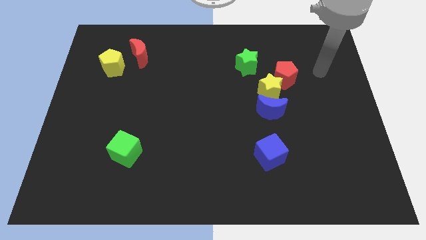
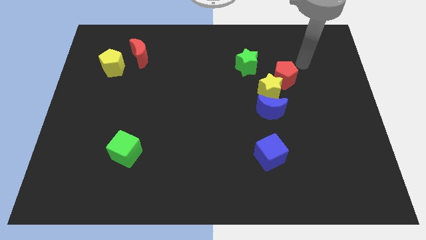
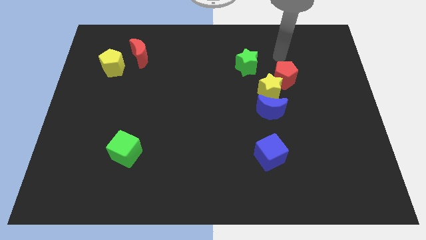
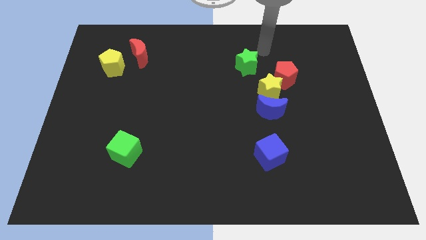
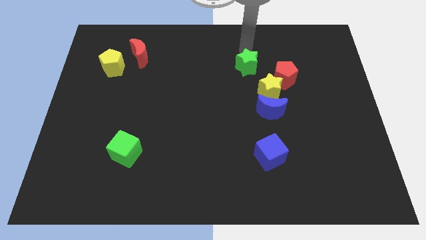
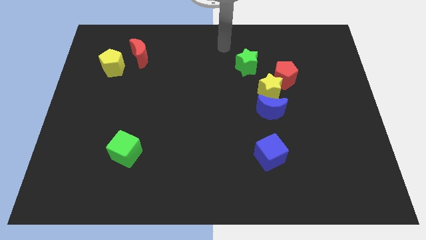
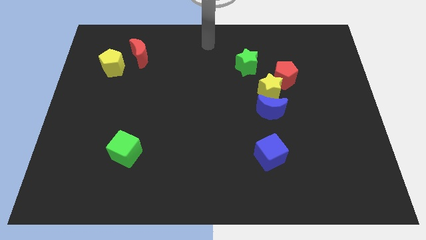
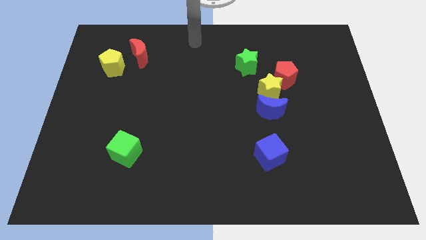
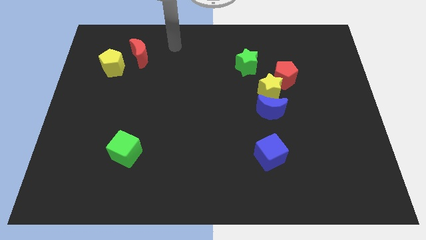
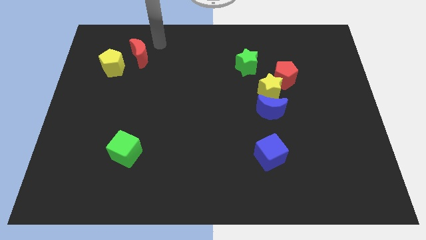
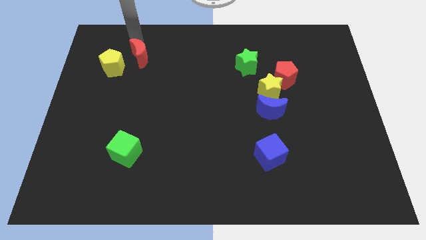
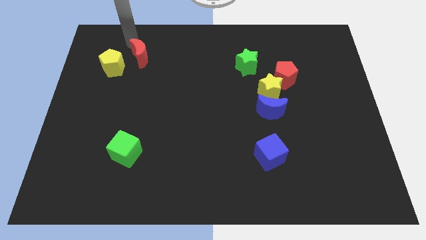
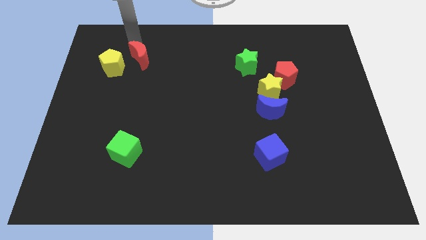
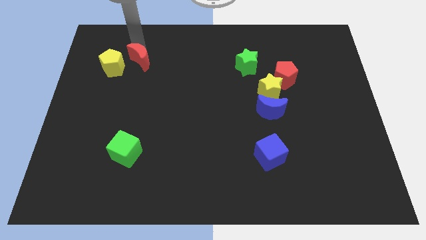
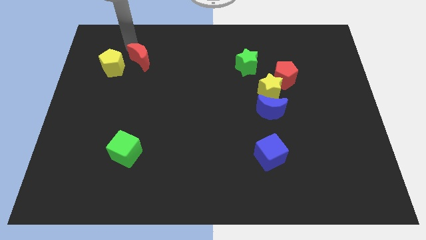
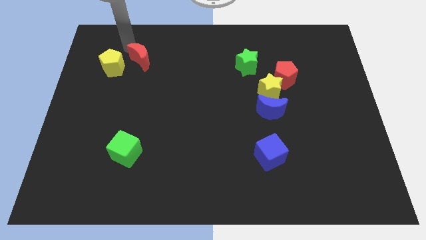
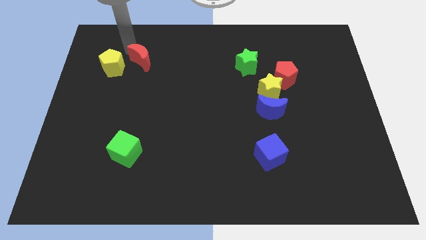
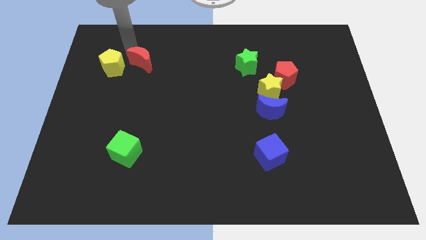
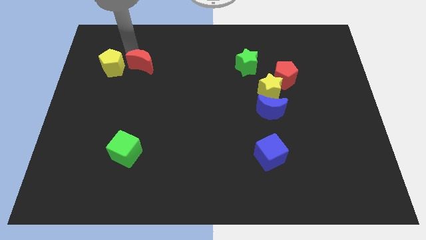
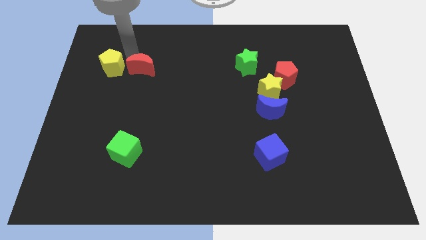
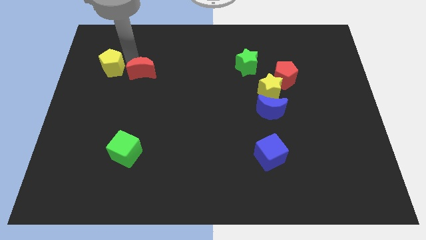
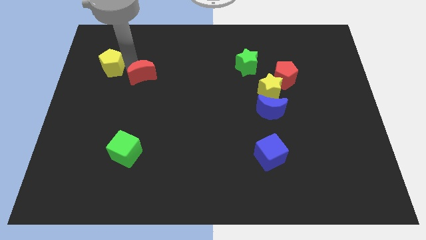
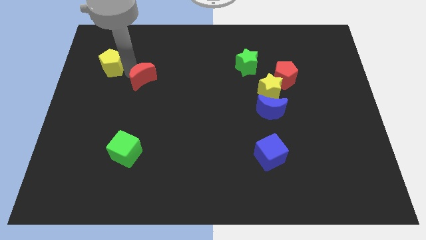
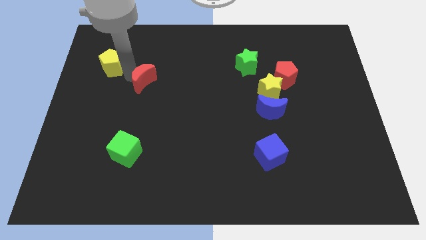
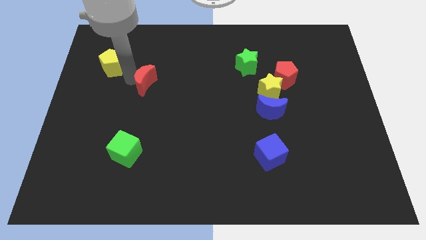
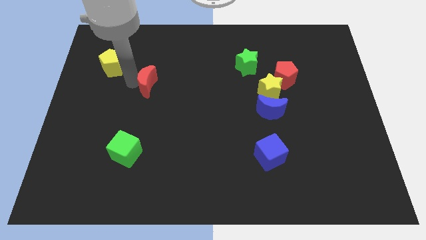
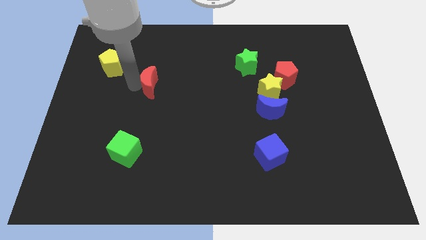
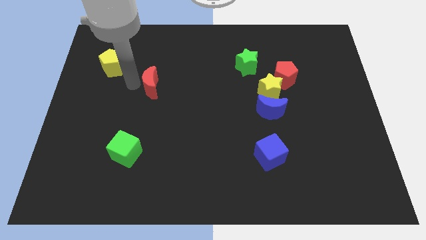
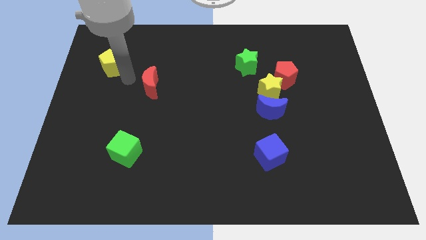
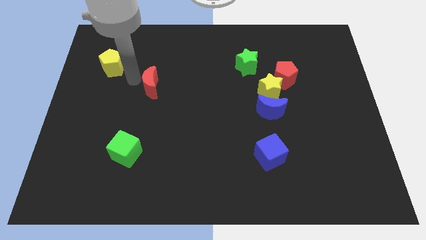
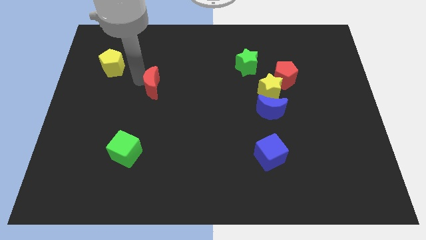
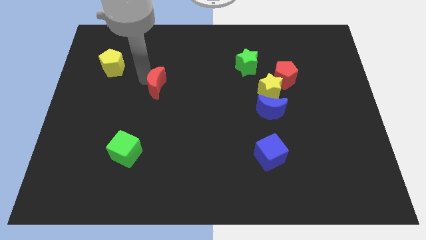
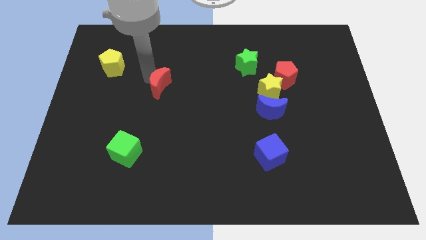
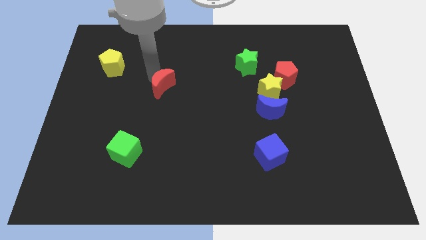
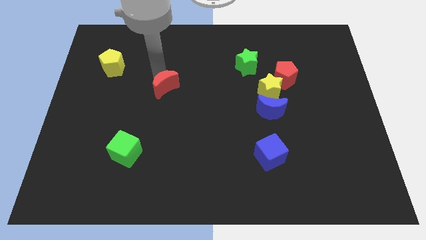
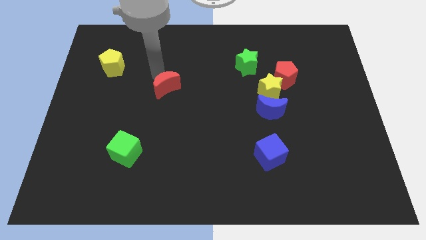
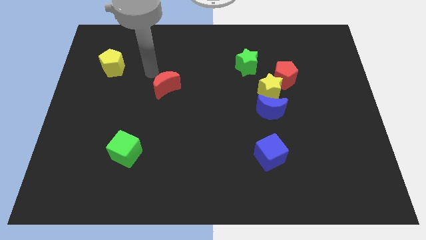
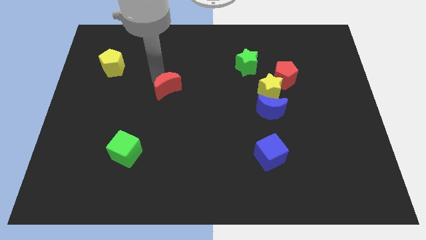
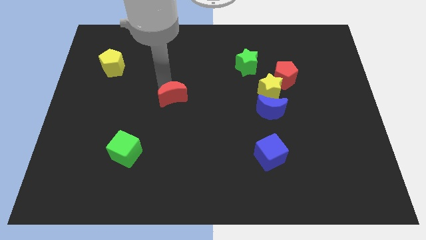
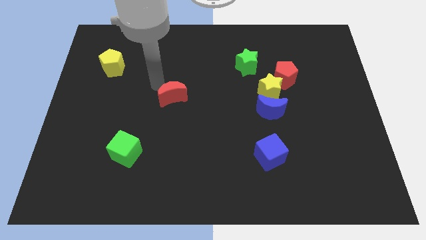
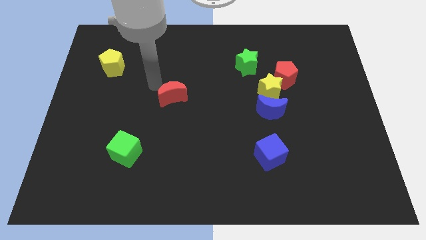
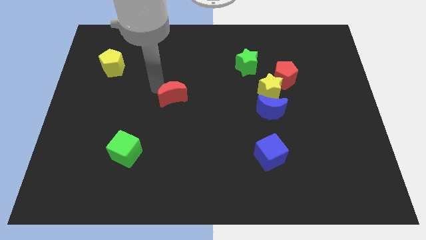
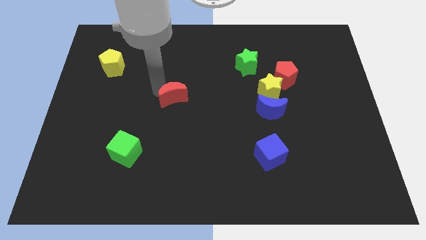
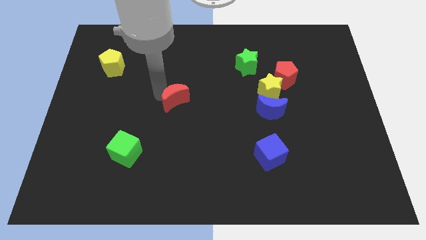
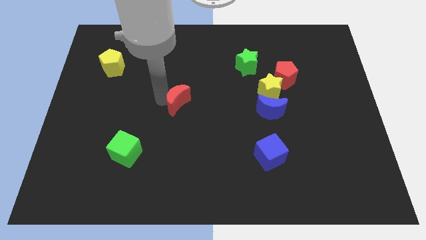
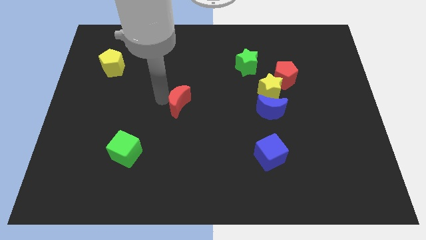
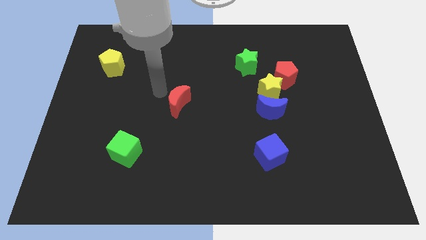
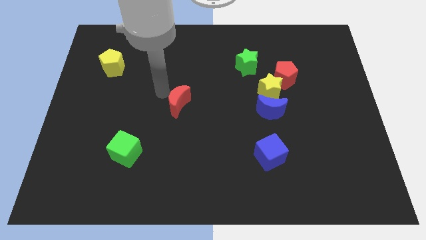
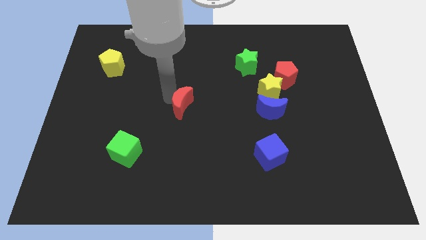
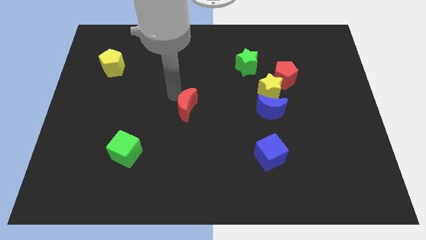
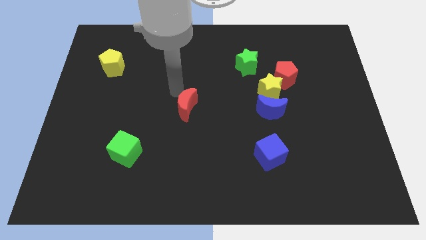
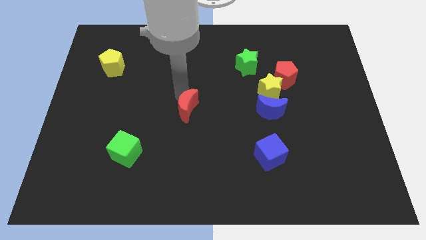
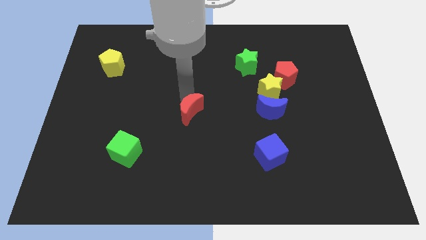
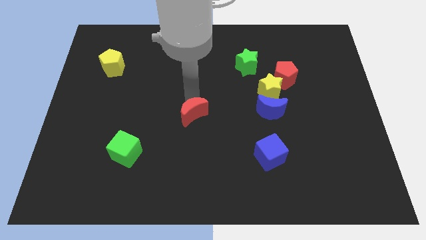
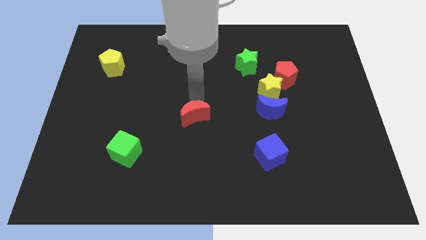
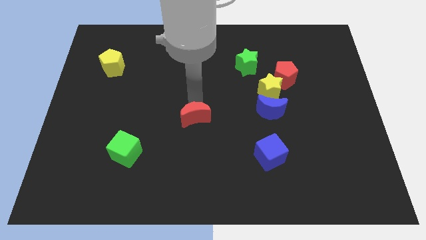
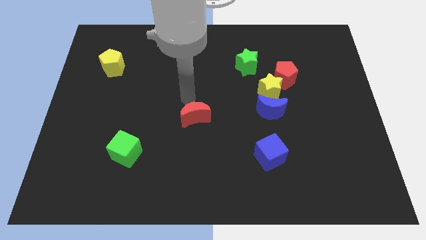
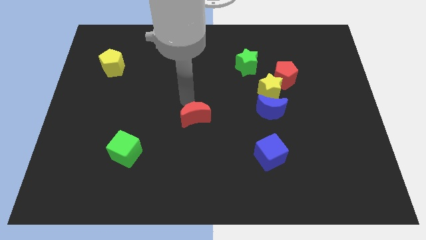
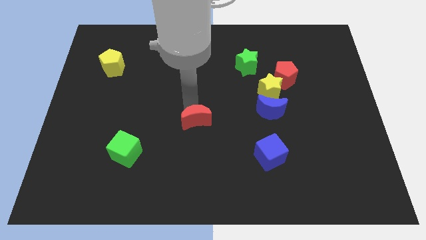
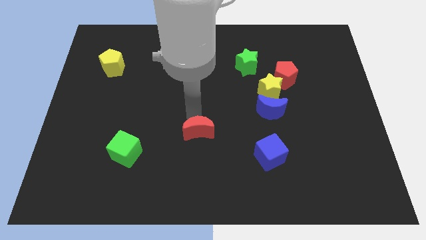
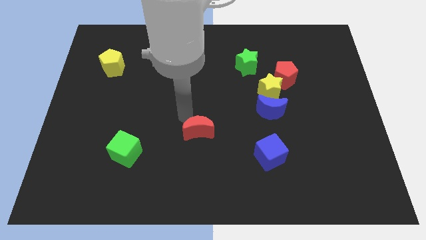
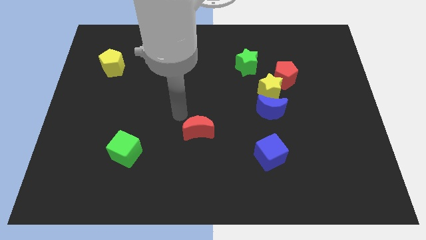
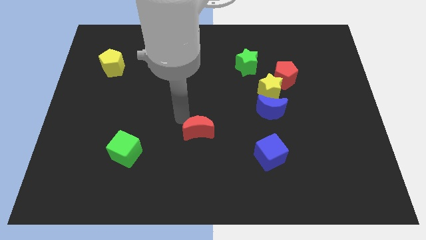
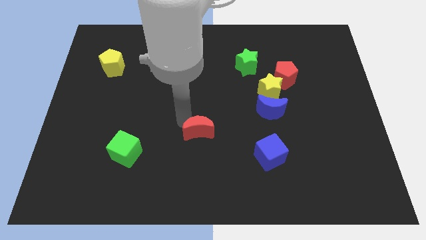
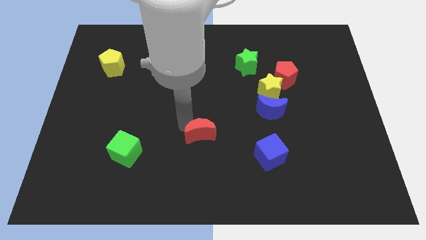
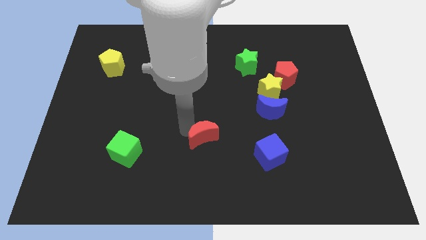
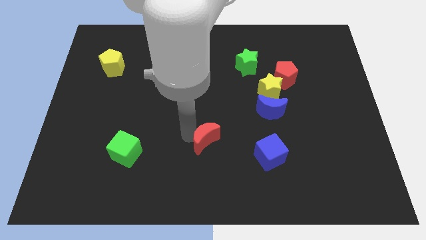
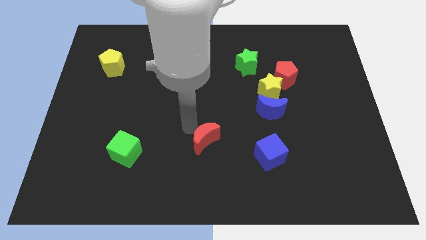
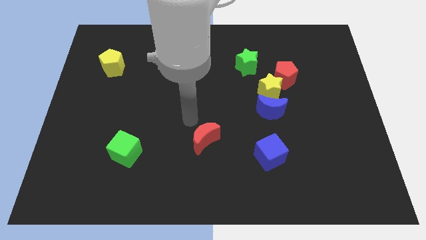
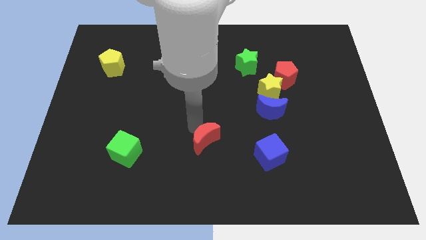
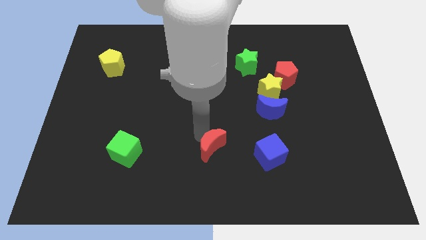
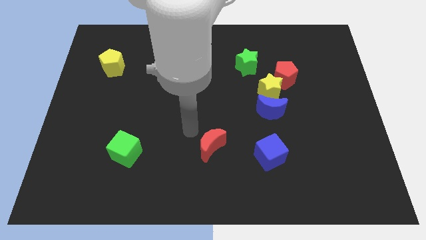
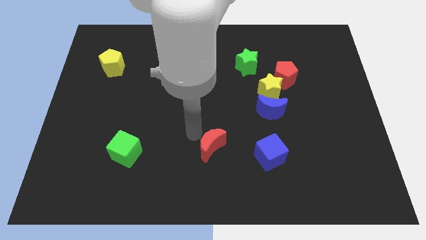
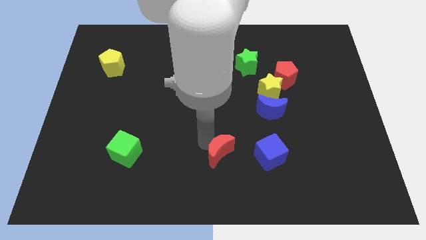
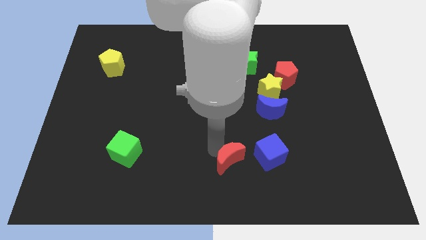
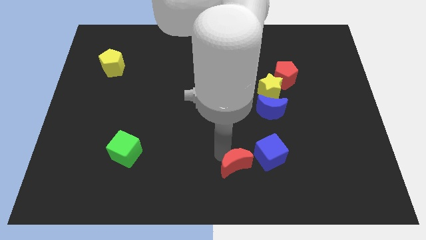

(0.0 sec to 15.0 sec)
slide the red moon to the bottom left side of the blue cube
